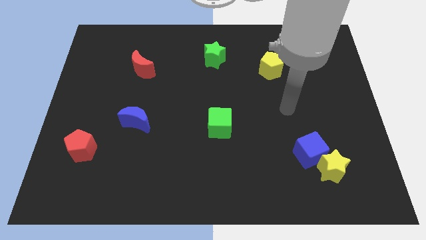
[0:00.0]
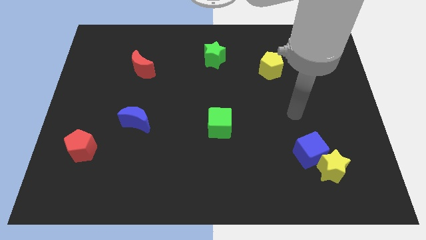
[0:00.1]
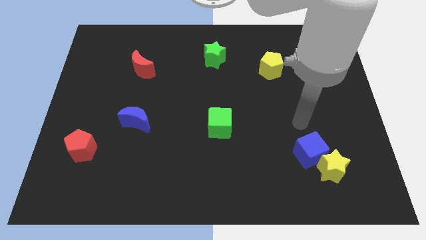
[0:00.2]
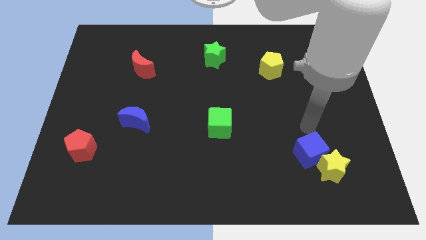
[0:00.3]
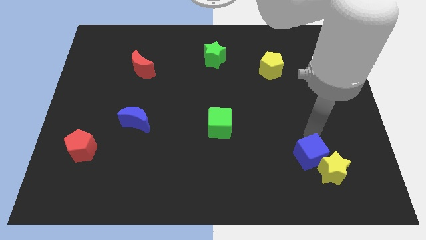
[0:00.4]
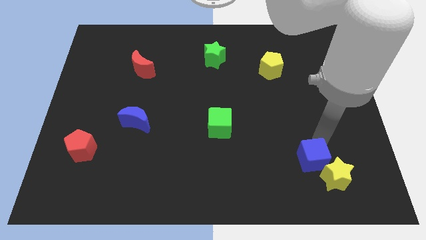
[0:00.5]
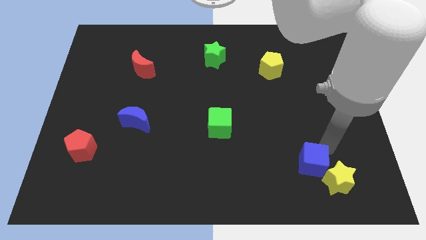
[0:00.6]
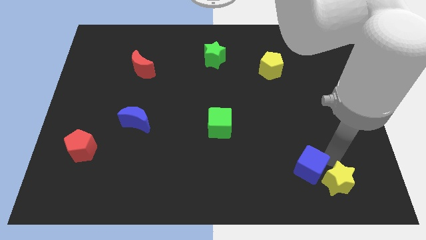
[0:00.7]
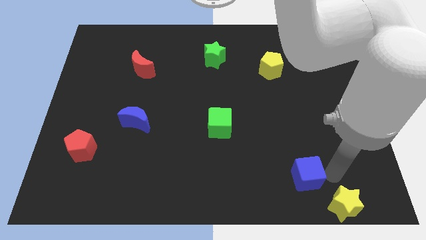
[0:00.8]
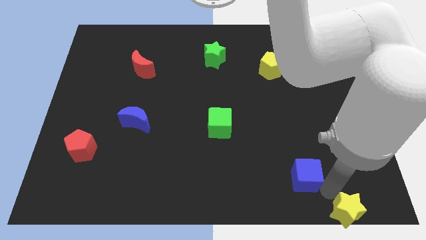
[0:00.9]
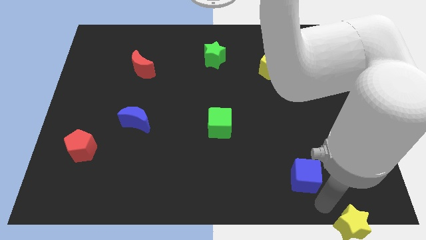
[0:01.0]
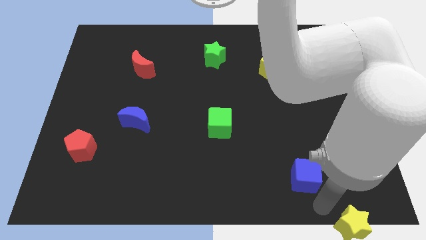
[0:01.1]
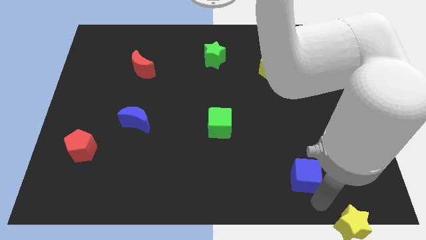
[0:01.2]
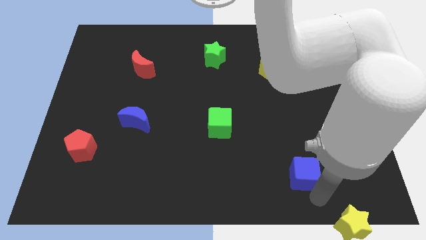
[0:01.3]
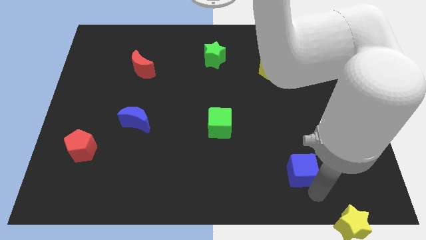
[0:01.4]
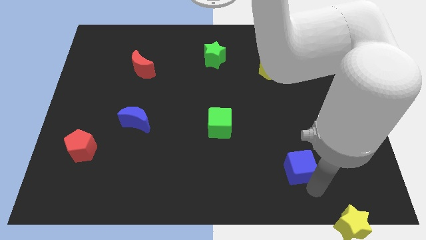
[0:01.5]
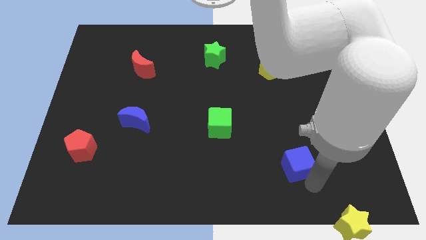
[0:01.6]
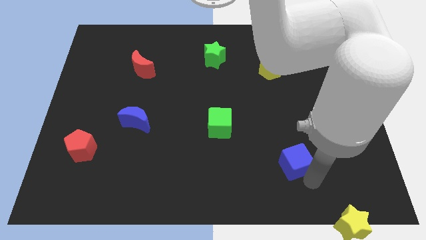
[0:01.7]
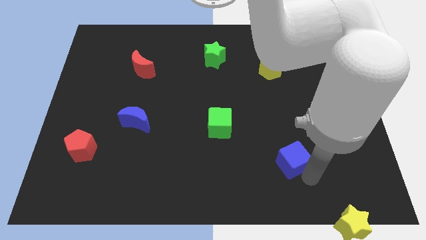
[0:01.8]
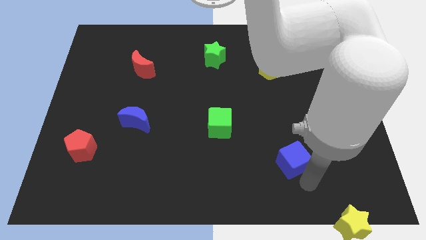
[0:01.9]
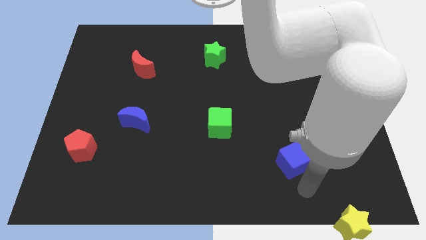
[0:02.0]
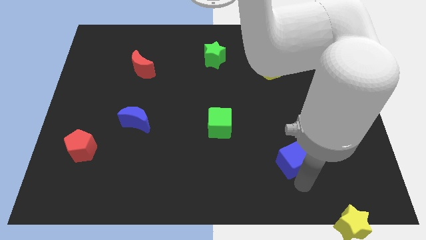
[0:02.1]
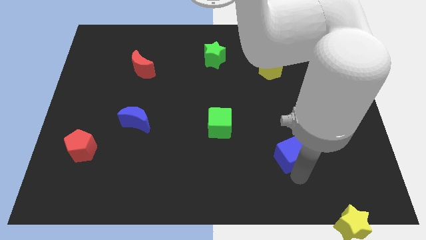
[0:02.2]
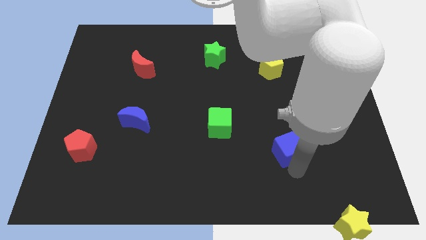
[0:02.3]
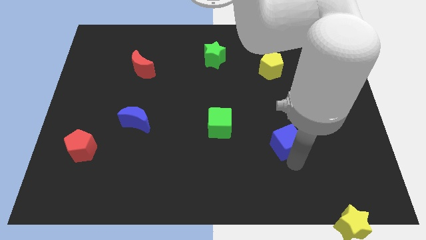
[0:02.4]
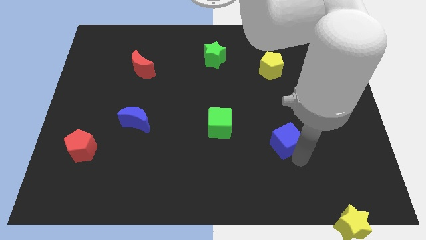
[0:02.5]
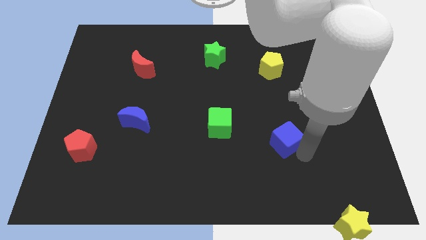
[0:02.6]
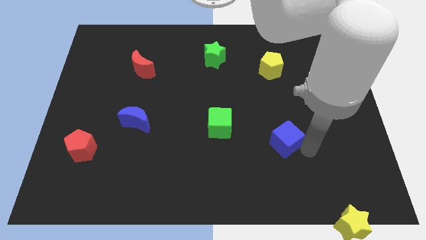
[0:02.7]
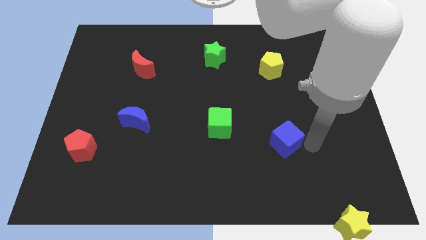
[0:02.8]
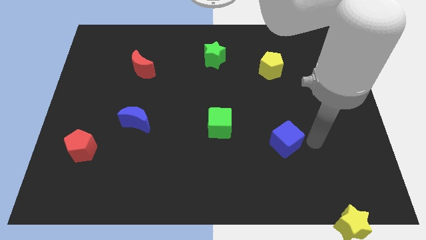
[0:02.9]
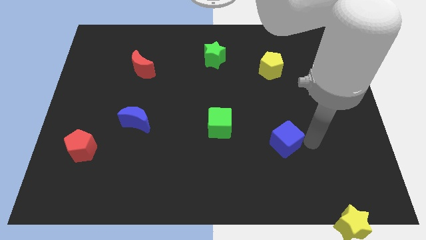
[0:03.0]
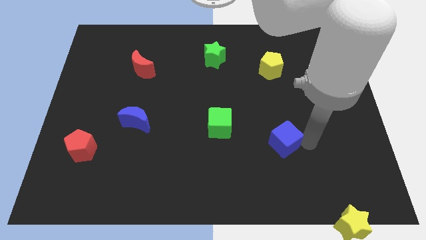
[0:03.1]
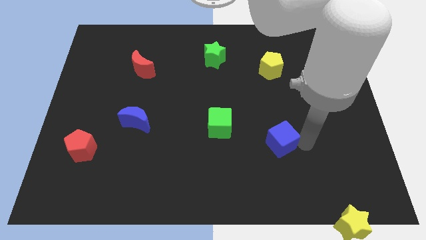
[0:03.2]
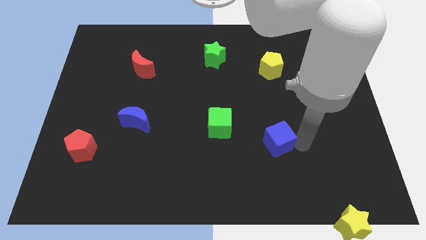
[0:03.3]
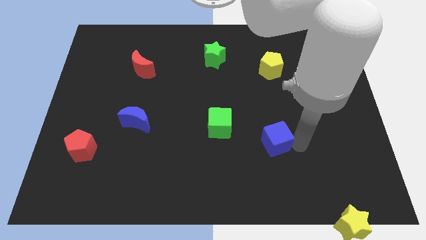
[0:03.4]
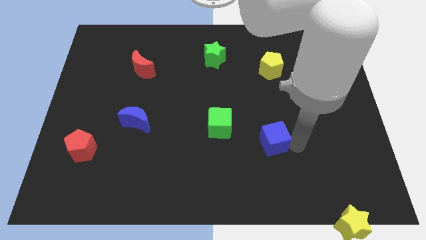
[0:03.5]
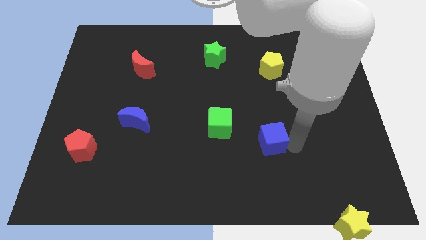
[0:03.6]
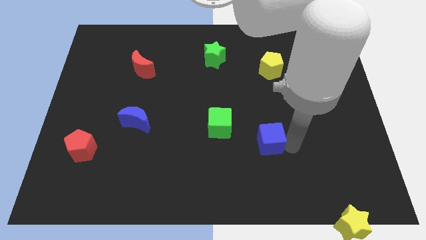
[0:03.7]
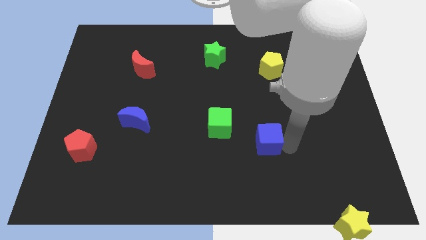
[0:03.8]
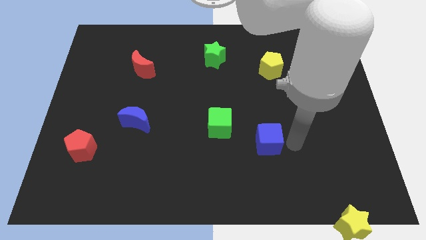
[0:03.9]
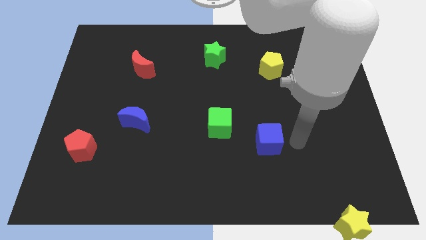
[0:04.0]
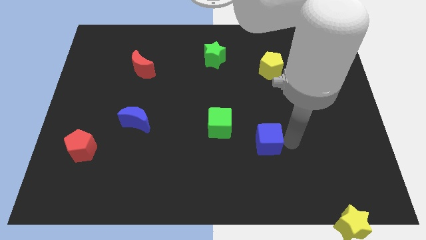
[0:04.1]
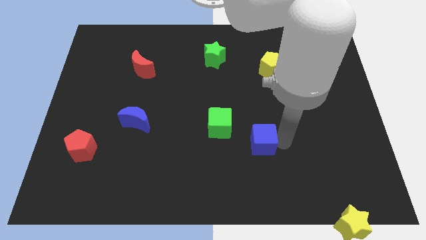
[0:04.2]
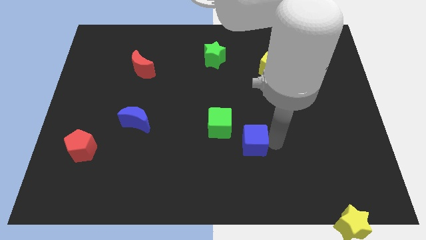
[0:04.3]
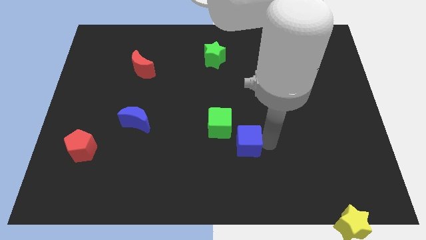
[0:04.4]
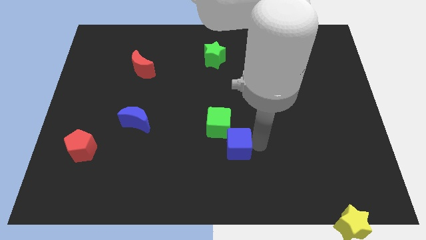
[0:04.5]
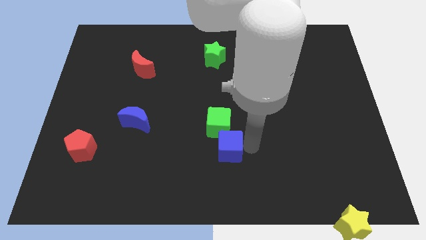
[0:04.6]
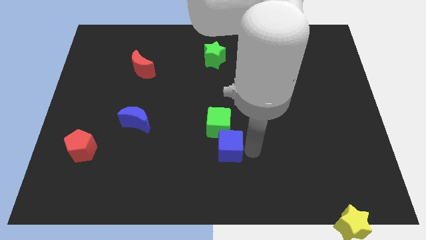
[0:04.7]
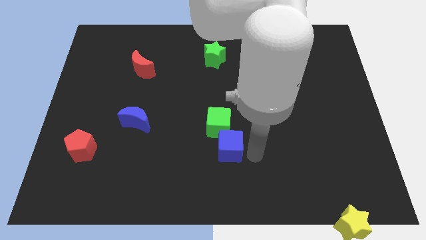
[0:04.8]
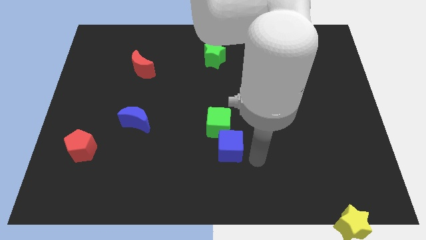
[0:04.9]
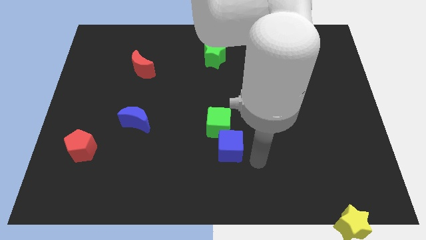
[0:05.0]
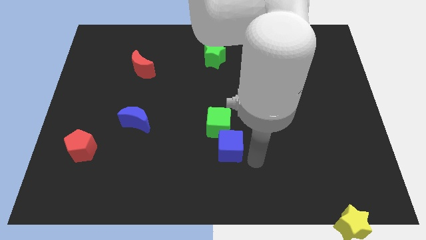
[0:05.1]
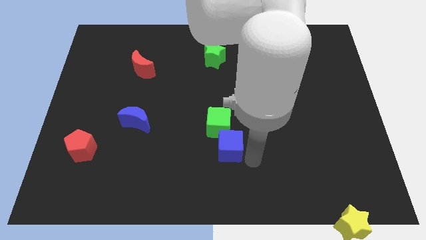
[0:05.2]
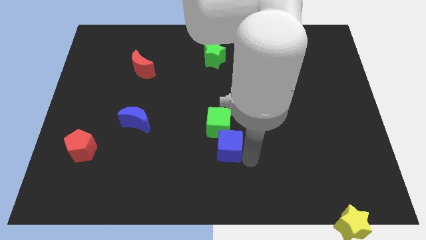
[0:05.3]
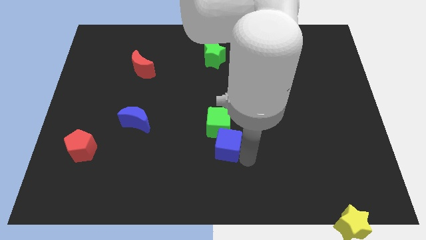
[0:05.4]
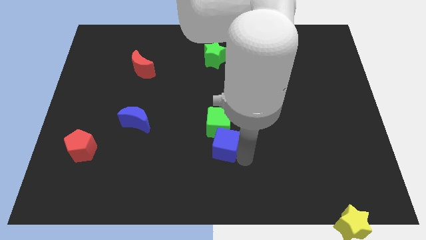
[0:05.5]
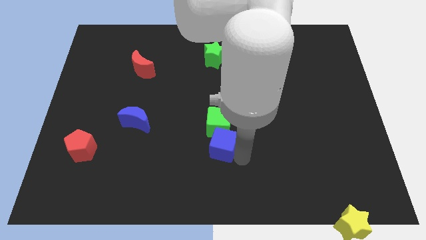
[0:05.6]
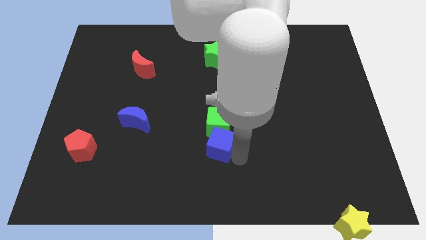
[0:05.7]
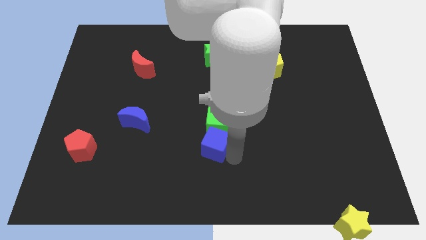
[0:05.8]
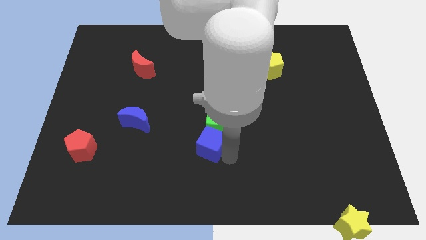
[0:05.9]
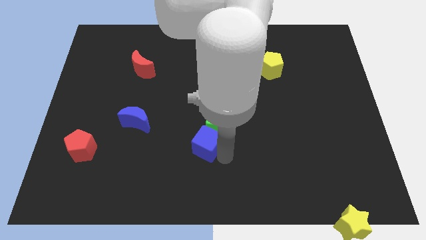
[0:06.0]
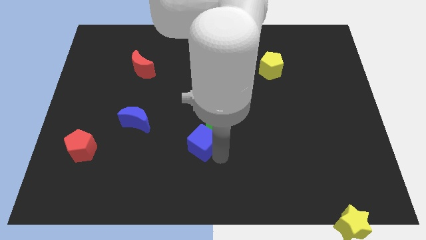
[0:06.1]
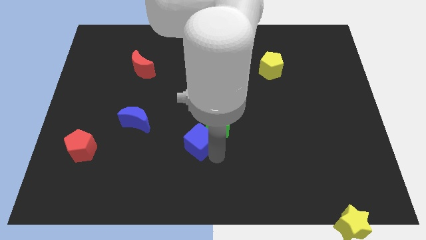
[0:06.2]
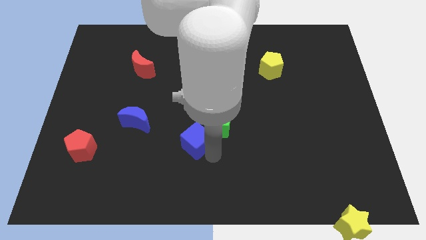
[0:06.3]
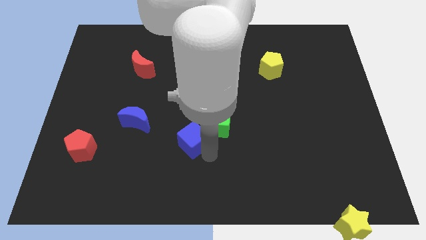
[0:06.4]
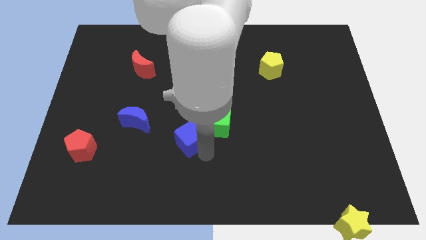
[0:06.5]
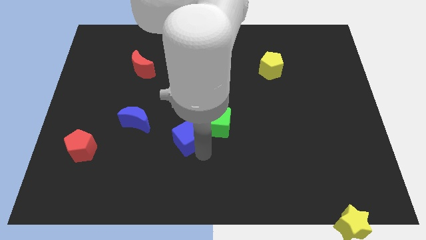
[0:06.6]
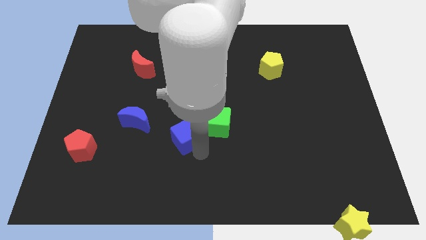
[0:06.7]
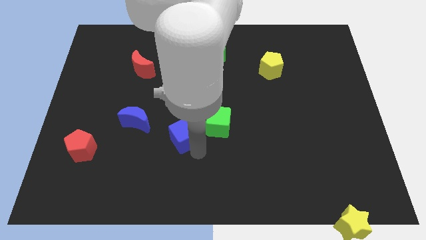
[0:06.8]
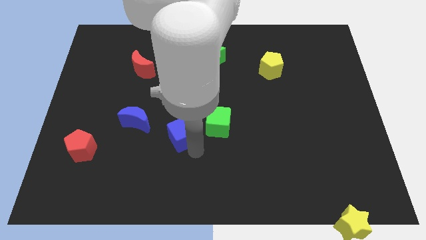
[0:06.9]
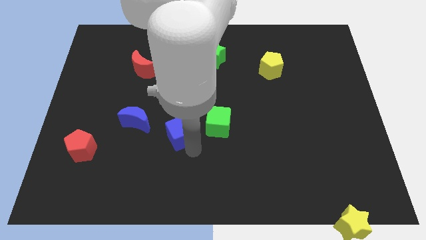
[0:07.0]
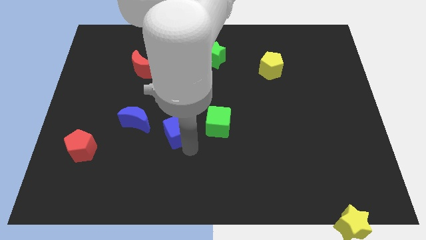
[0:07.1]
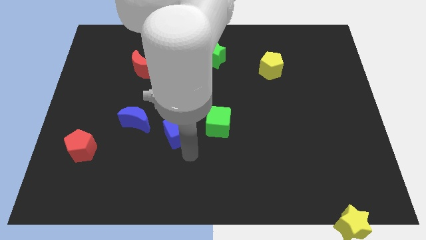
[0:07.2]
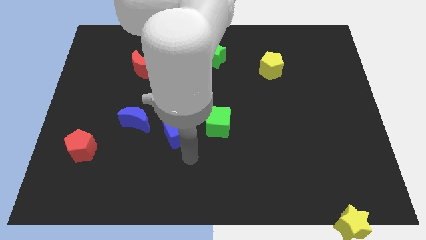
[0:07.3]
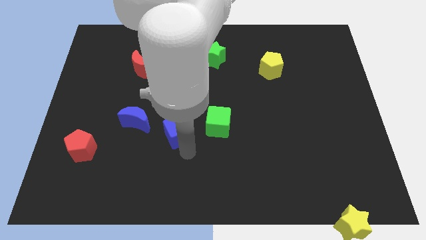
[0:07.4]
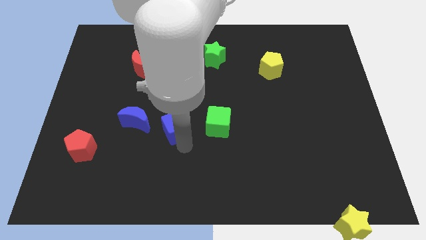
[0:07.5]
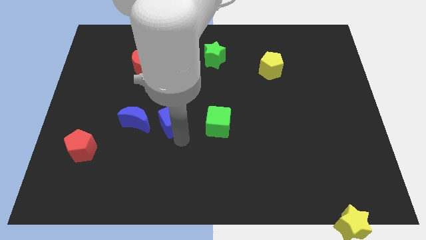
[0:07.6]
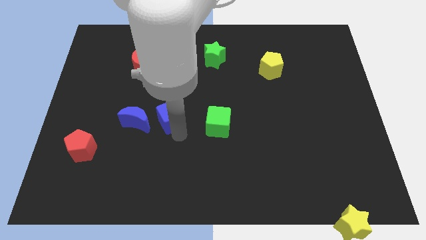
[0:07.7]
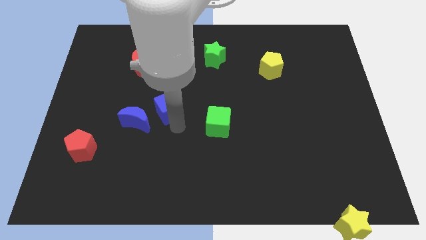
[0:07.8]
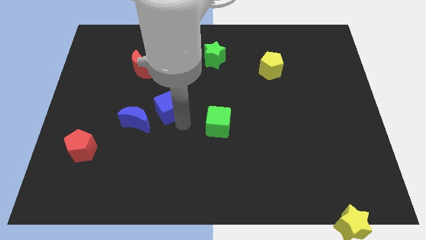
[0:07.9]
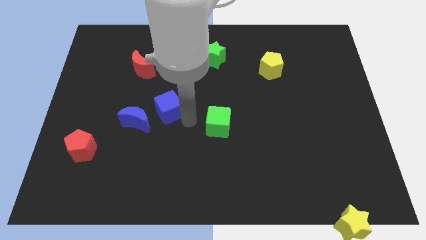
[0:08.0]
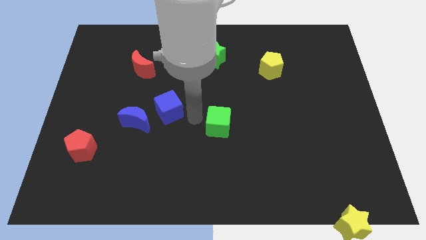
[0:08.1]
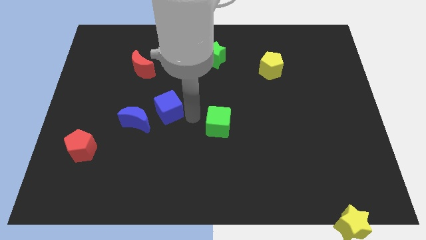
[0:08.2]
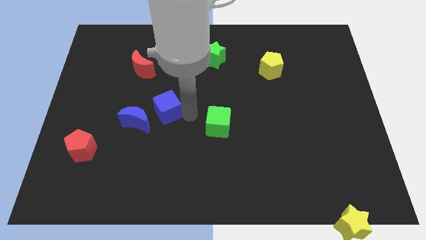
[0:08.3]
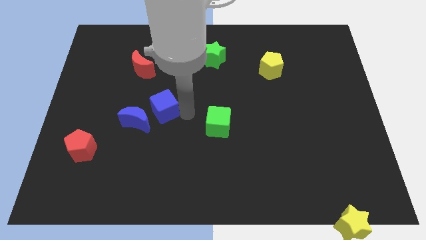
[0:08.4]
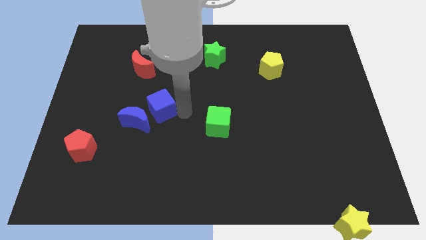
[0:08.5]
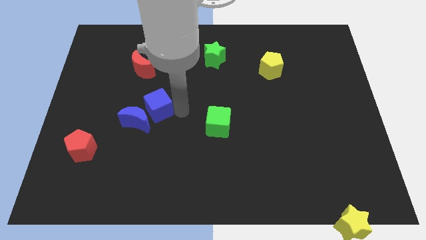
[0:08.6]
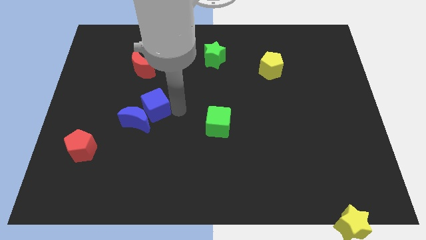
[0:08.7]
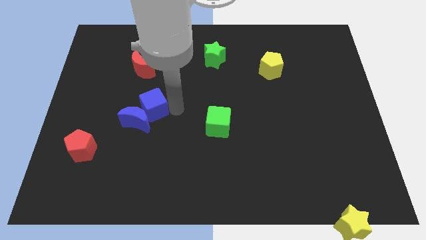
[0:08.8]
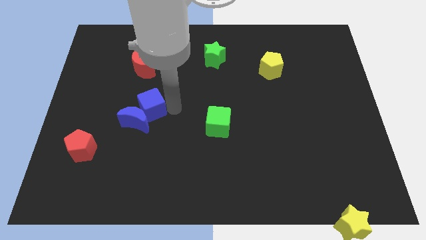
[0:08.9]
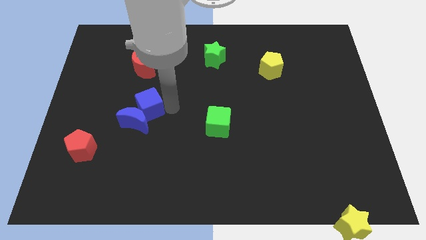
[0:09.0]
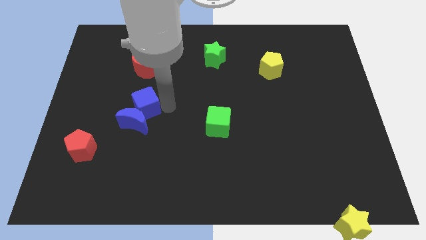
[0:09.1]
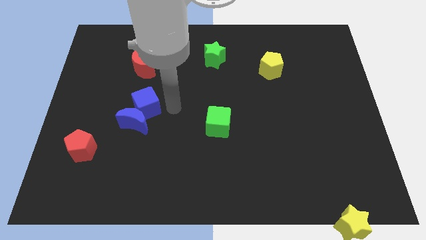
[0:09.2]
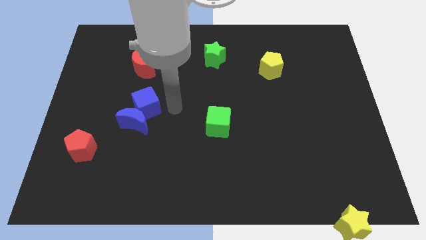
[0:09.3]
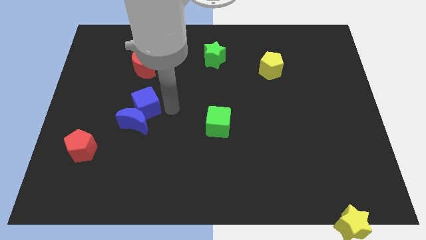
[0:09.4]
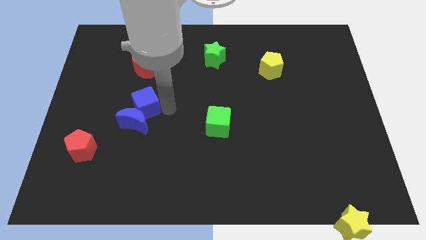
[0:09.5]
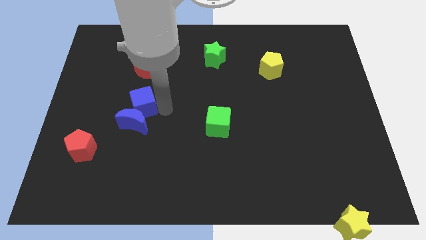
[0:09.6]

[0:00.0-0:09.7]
move the blue cube diagonally up and to the left of the blue moon
